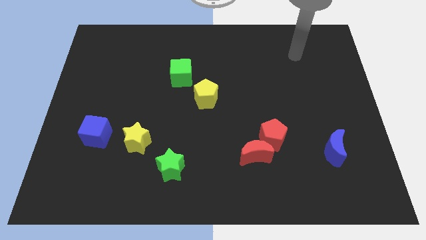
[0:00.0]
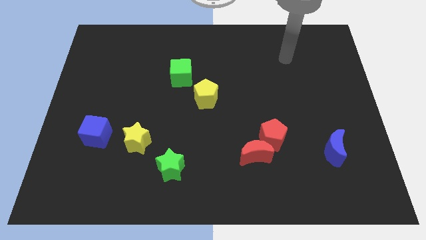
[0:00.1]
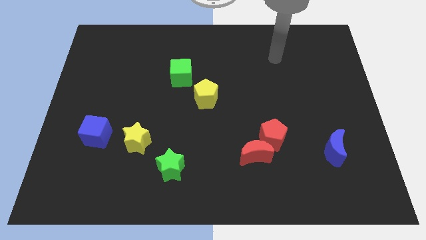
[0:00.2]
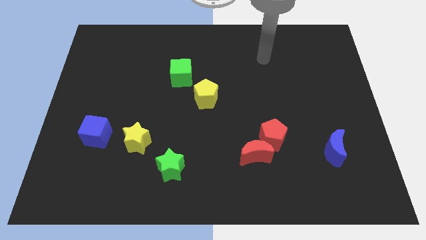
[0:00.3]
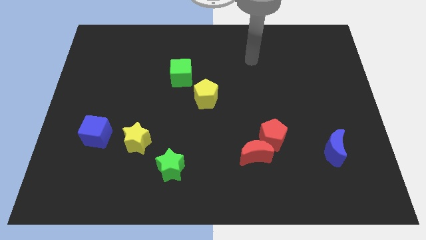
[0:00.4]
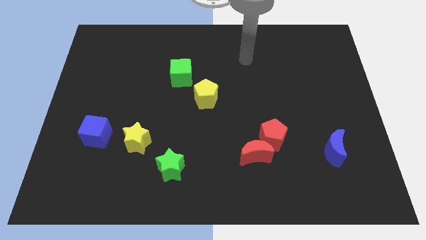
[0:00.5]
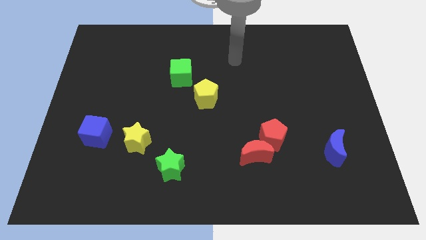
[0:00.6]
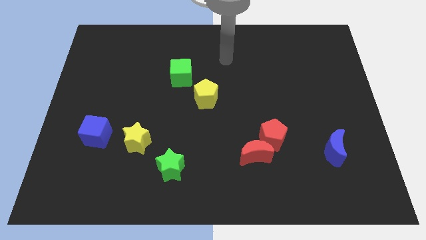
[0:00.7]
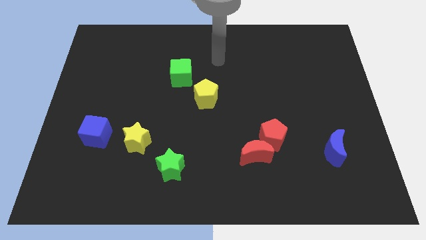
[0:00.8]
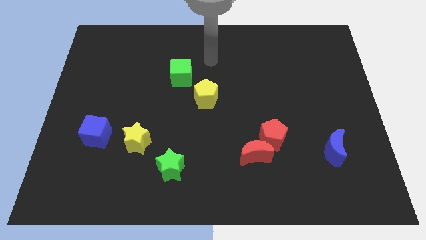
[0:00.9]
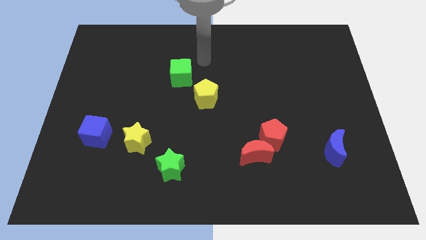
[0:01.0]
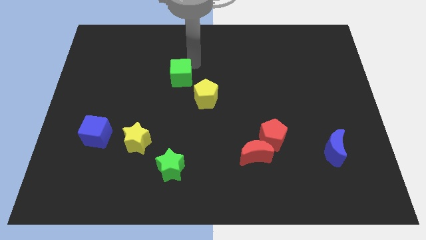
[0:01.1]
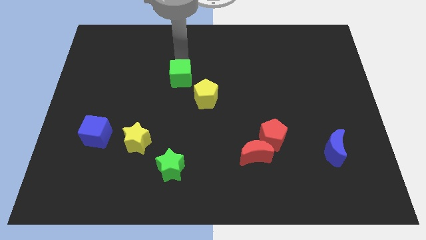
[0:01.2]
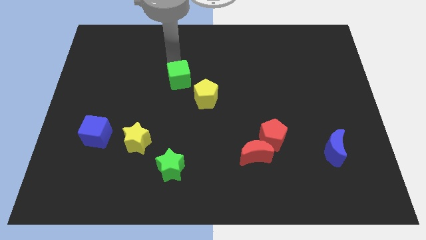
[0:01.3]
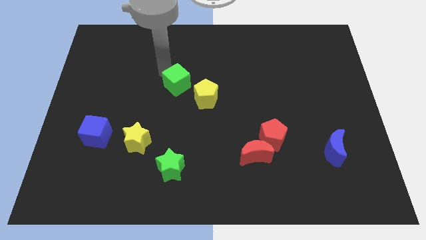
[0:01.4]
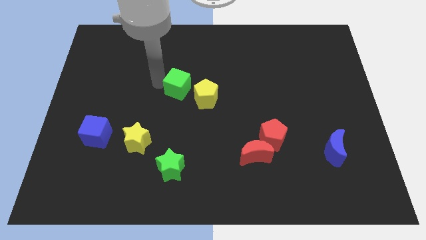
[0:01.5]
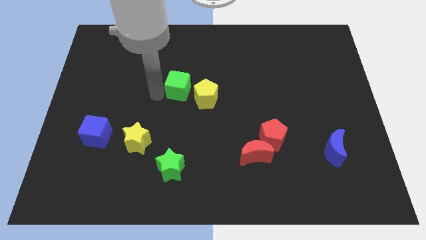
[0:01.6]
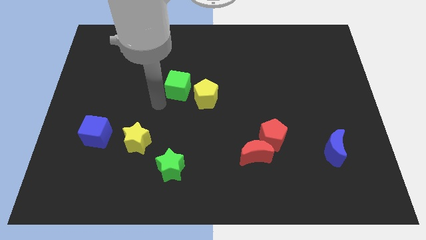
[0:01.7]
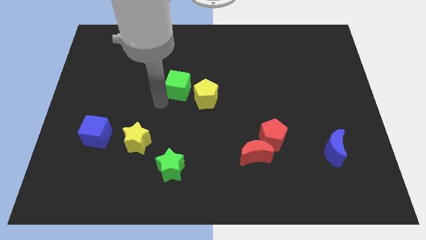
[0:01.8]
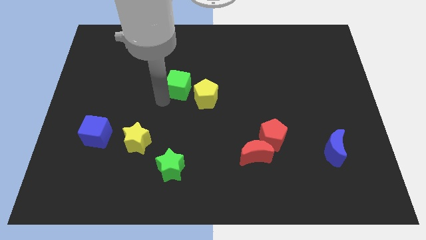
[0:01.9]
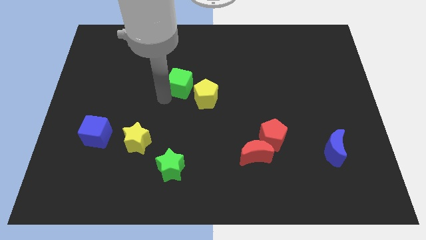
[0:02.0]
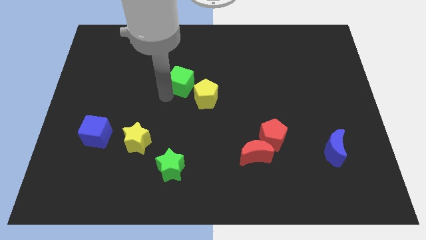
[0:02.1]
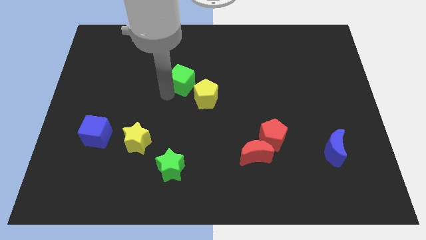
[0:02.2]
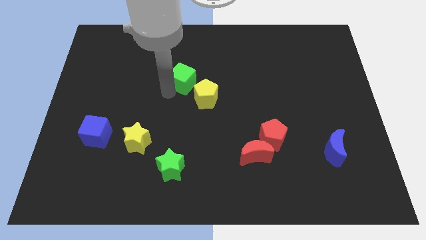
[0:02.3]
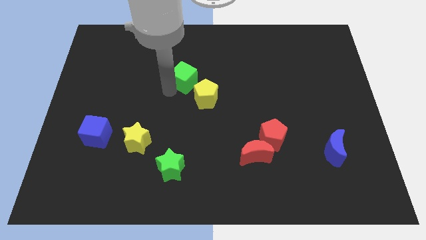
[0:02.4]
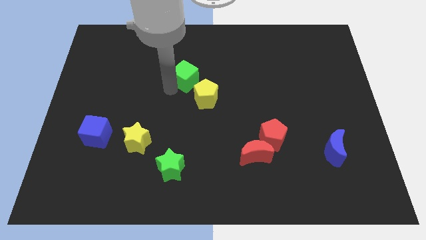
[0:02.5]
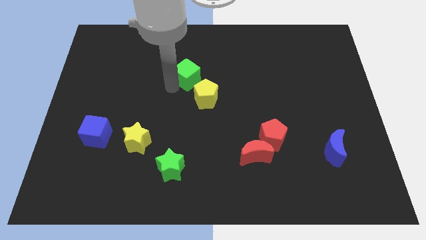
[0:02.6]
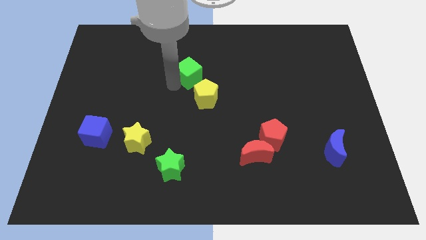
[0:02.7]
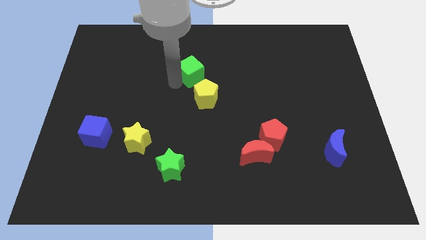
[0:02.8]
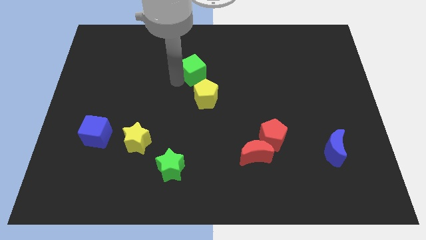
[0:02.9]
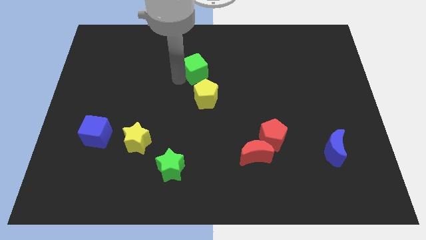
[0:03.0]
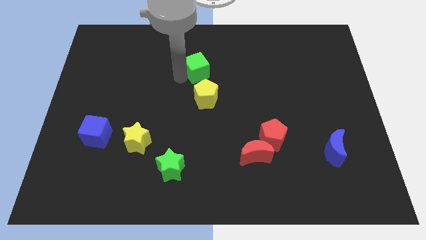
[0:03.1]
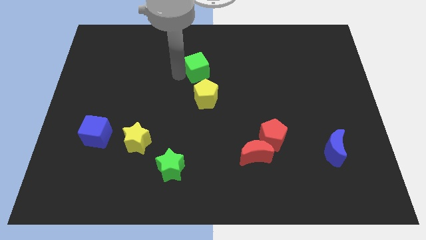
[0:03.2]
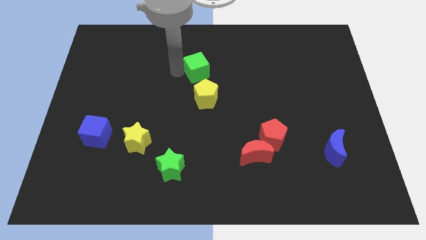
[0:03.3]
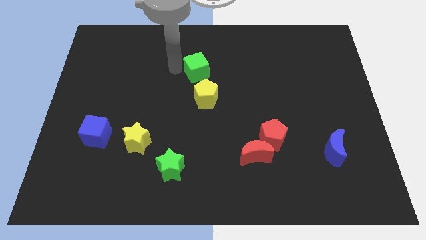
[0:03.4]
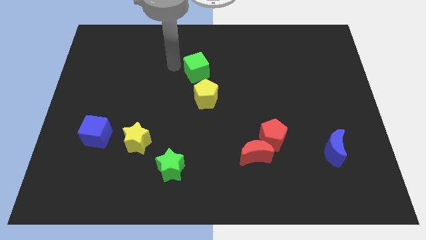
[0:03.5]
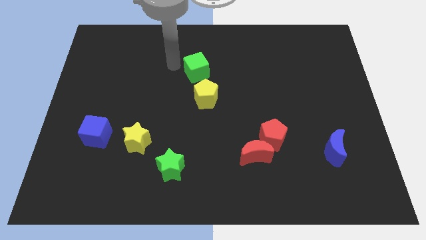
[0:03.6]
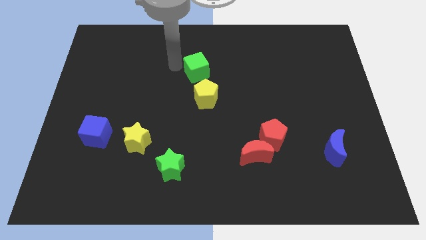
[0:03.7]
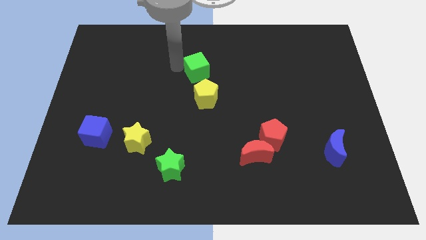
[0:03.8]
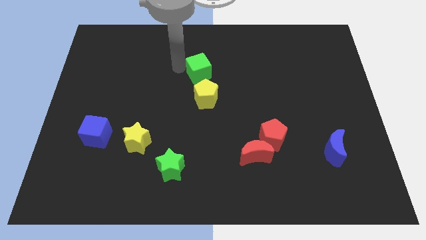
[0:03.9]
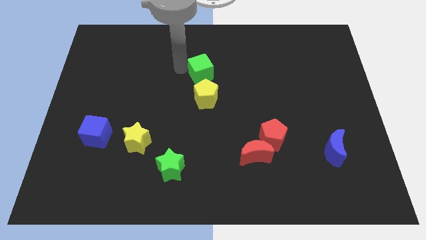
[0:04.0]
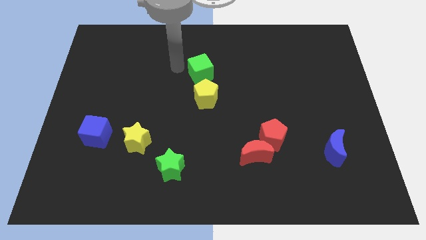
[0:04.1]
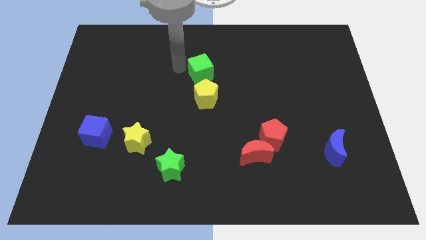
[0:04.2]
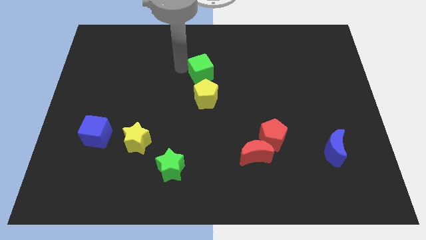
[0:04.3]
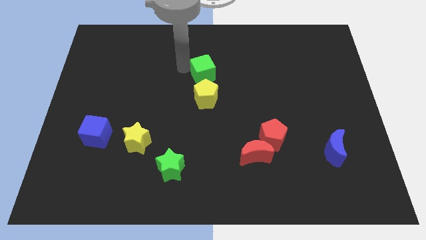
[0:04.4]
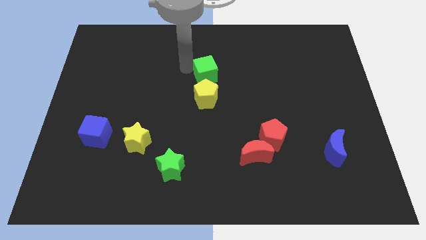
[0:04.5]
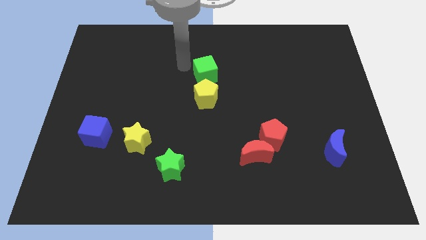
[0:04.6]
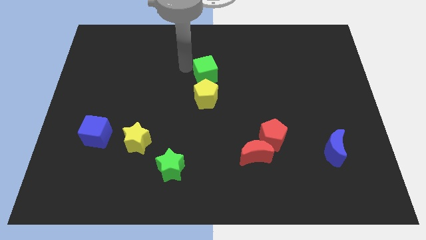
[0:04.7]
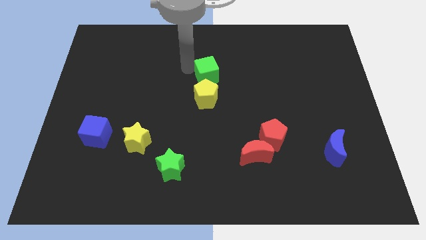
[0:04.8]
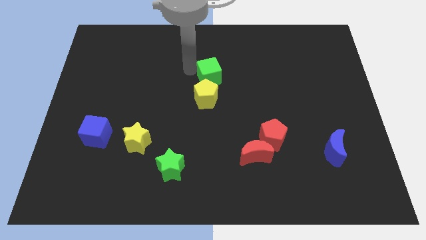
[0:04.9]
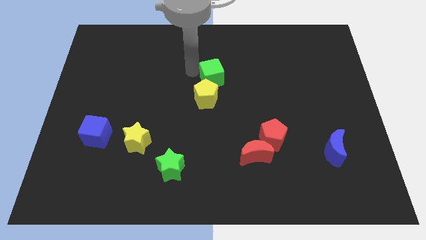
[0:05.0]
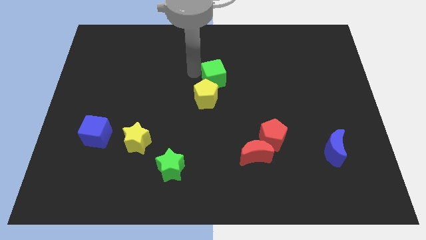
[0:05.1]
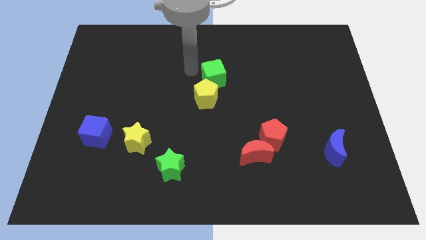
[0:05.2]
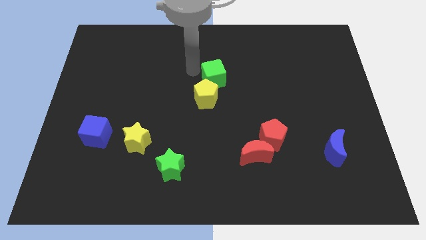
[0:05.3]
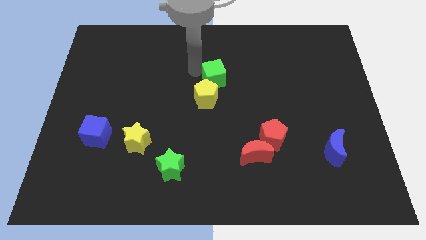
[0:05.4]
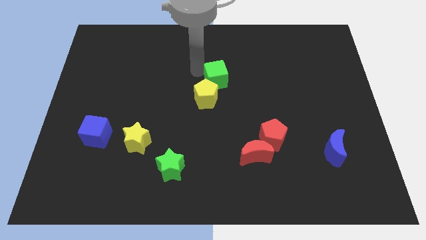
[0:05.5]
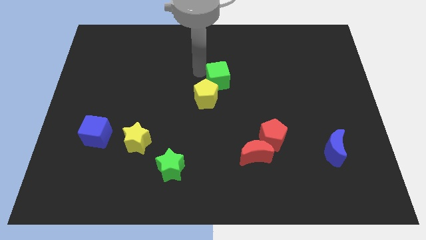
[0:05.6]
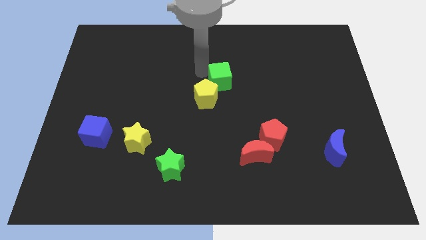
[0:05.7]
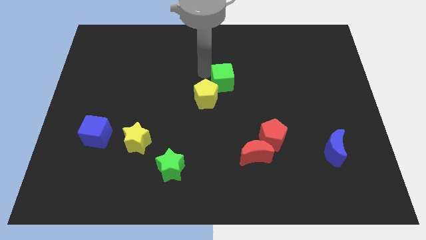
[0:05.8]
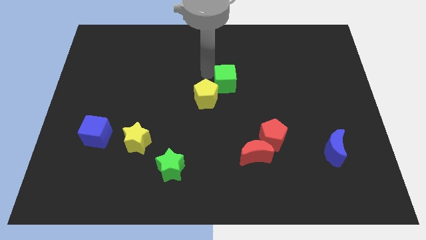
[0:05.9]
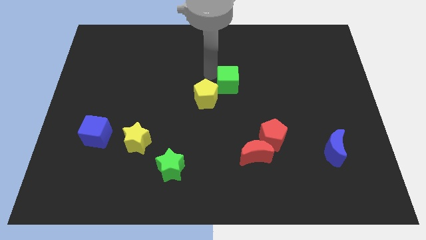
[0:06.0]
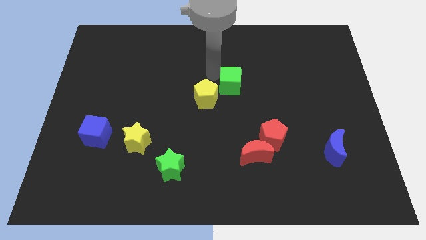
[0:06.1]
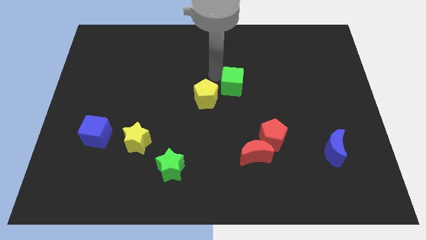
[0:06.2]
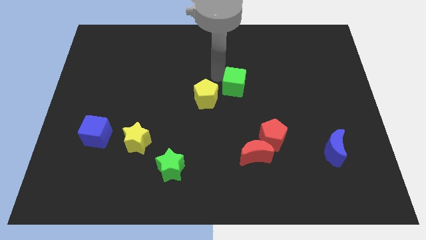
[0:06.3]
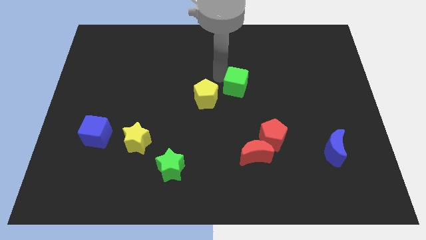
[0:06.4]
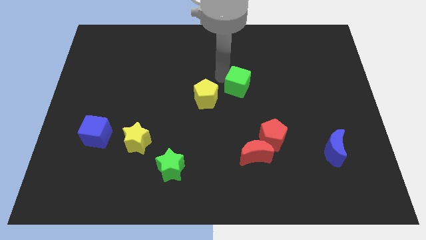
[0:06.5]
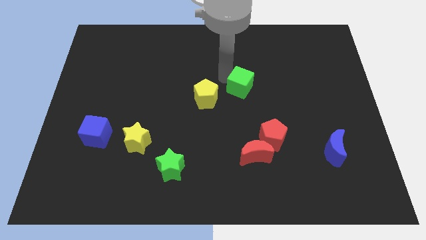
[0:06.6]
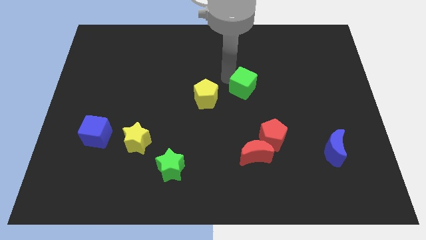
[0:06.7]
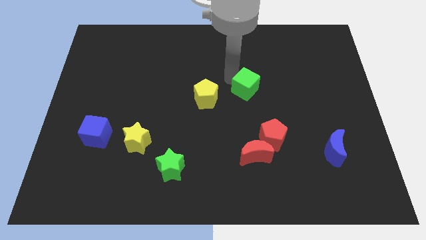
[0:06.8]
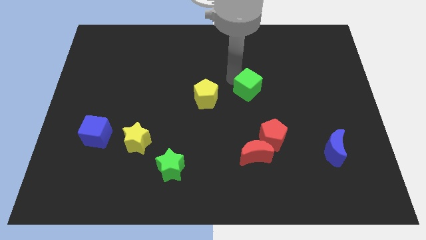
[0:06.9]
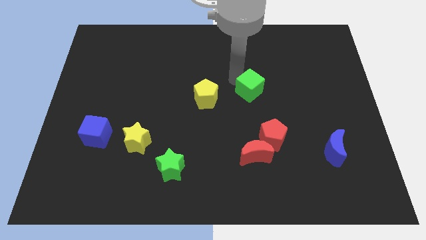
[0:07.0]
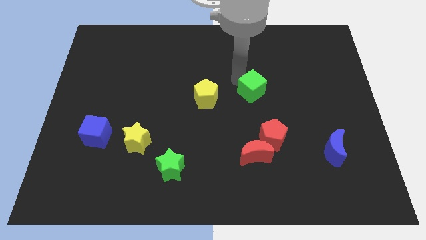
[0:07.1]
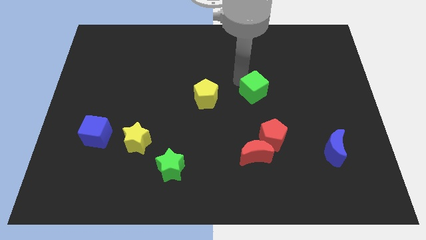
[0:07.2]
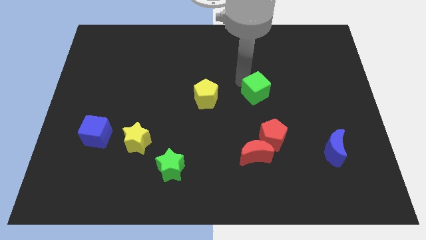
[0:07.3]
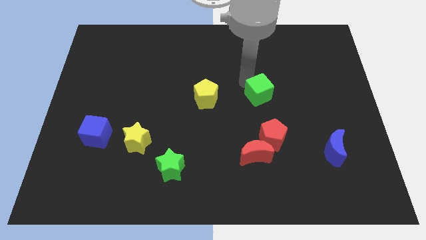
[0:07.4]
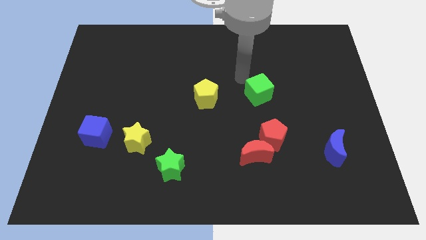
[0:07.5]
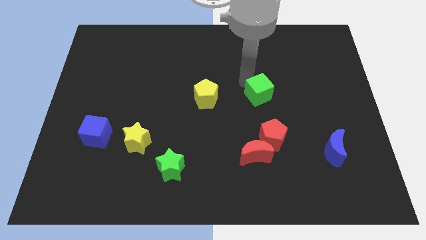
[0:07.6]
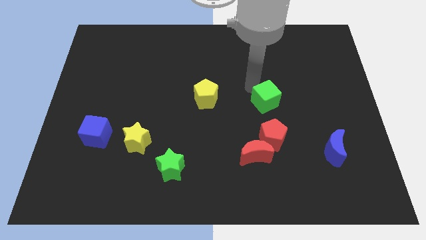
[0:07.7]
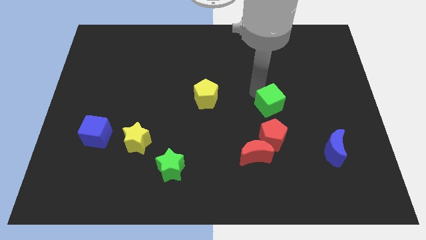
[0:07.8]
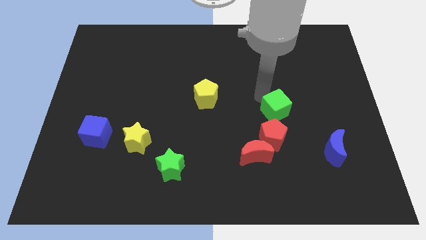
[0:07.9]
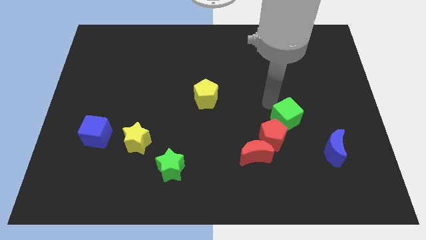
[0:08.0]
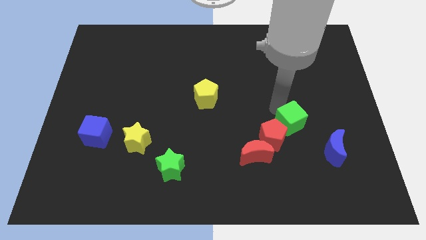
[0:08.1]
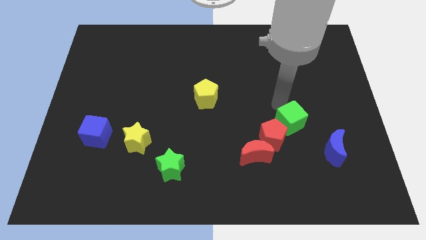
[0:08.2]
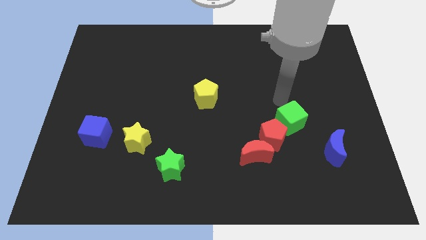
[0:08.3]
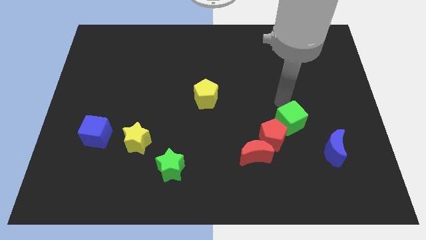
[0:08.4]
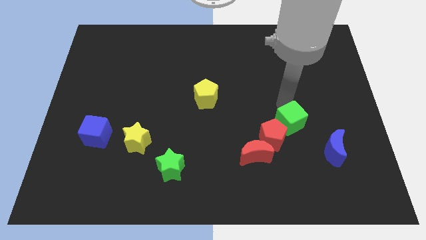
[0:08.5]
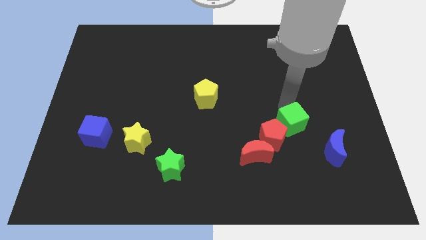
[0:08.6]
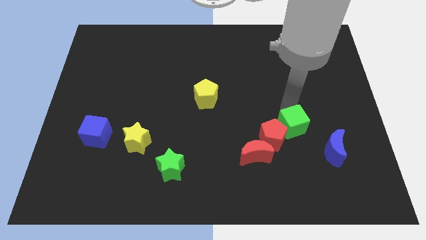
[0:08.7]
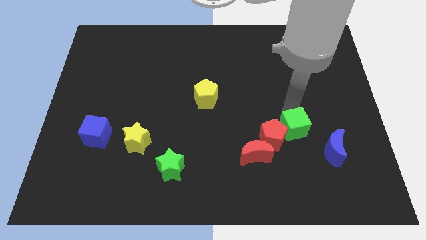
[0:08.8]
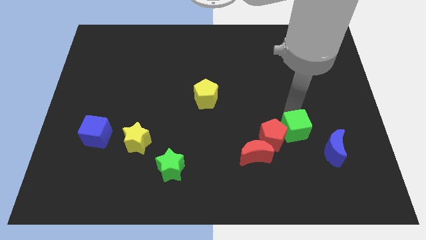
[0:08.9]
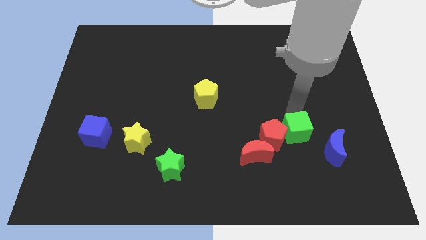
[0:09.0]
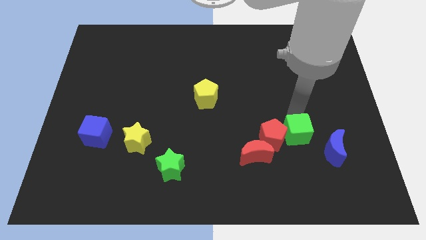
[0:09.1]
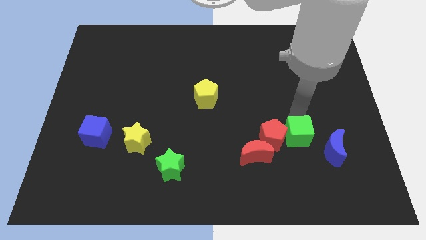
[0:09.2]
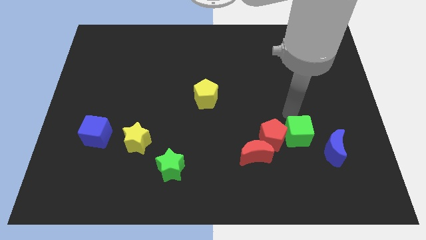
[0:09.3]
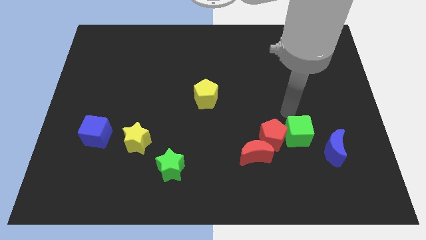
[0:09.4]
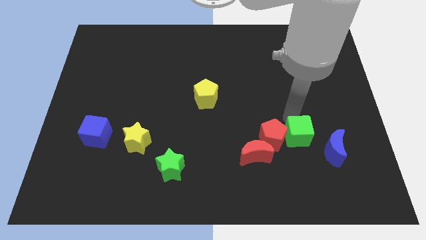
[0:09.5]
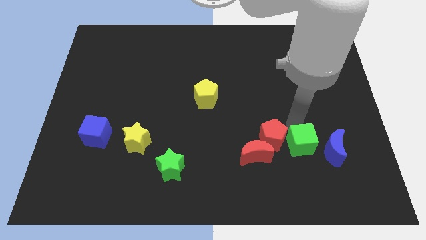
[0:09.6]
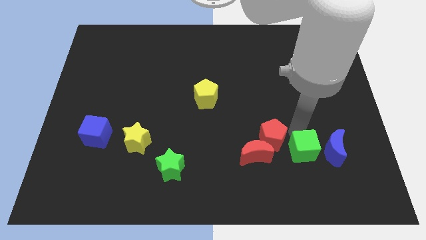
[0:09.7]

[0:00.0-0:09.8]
move the green cube to the bottom left side of the blue moon
